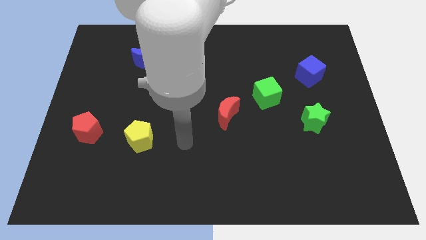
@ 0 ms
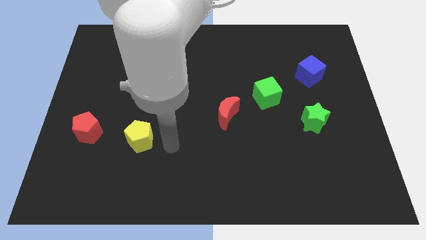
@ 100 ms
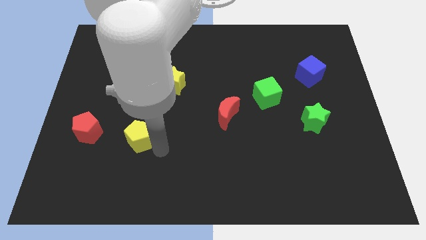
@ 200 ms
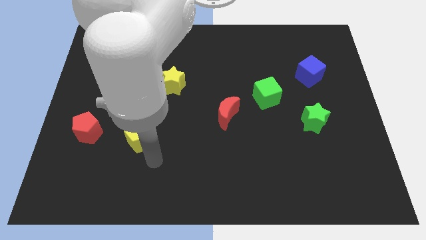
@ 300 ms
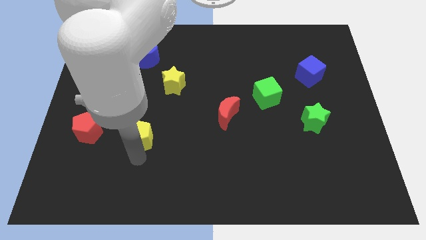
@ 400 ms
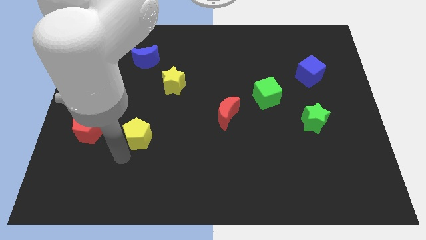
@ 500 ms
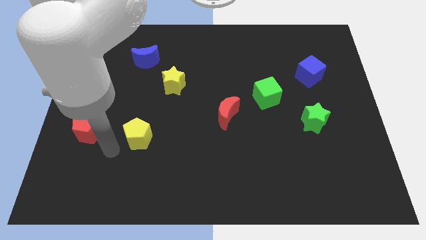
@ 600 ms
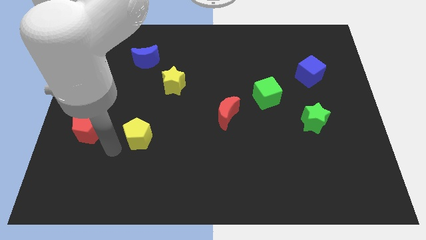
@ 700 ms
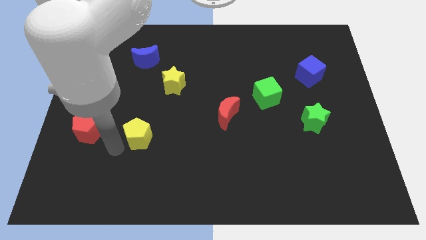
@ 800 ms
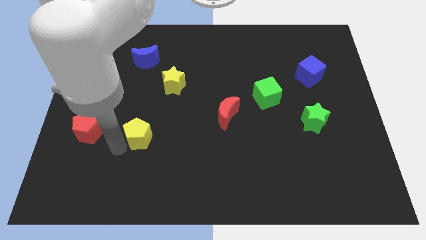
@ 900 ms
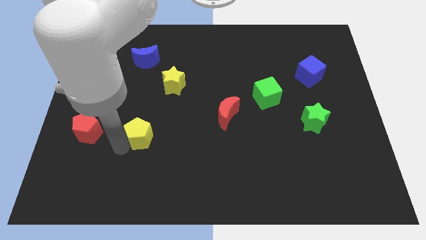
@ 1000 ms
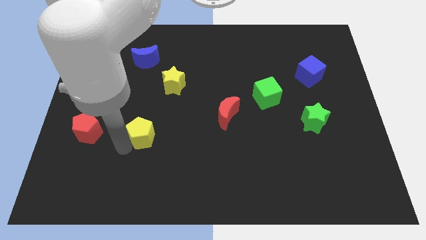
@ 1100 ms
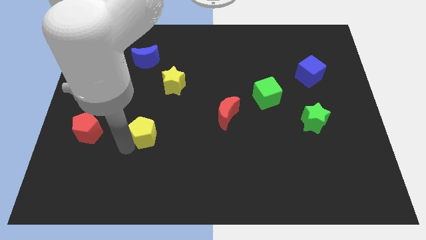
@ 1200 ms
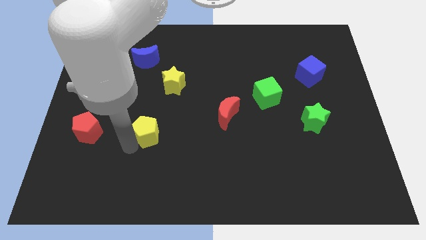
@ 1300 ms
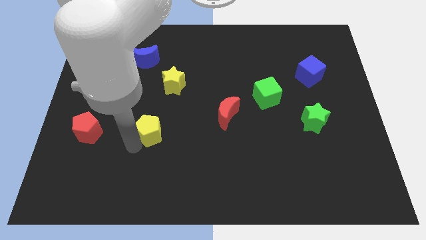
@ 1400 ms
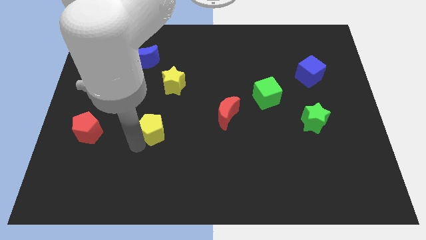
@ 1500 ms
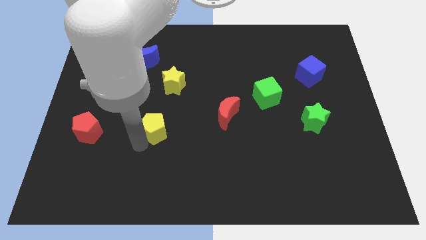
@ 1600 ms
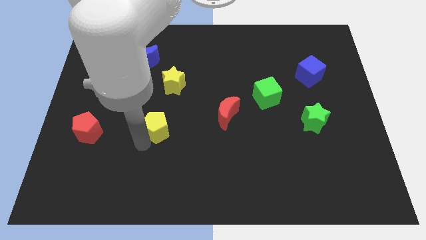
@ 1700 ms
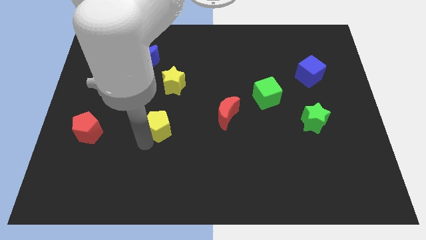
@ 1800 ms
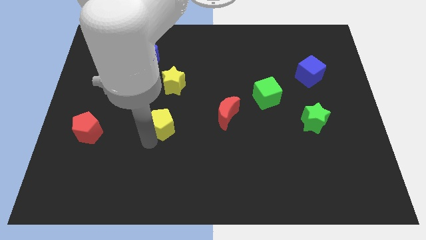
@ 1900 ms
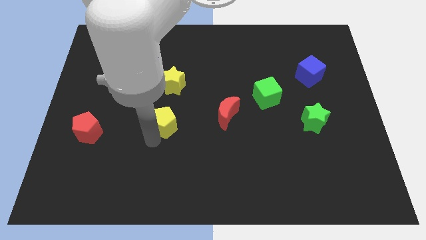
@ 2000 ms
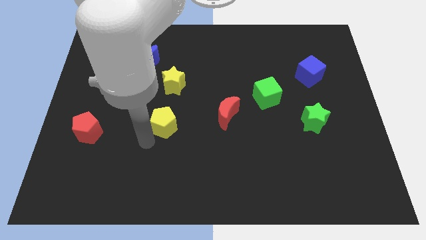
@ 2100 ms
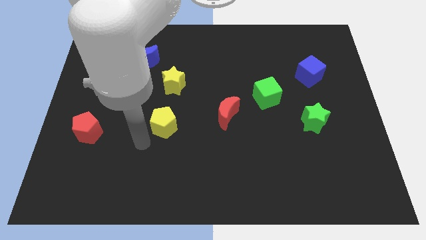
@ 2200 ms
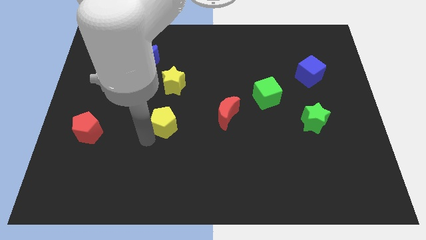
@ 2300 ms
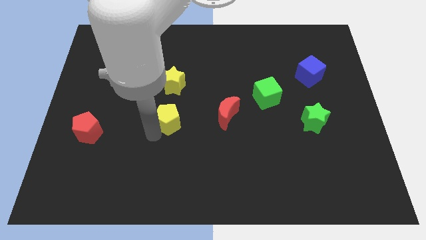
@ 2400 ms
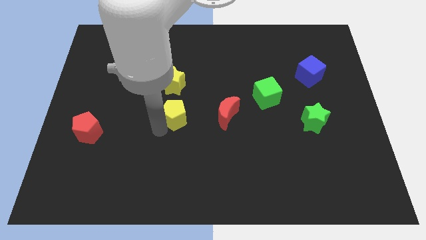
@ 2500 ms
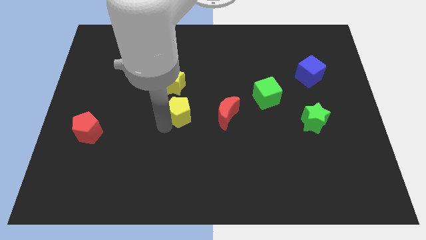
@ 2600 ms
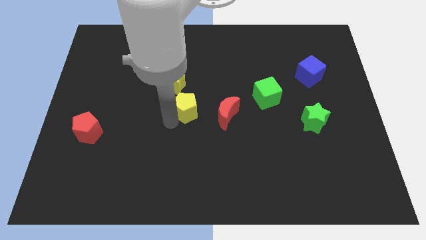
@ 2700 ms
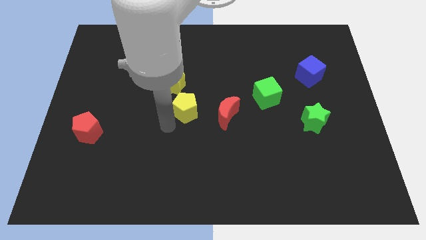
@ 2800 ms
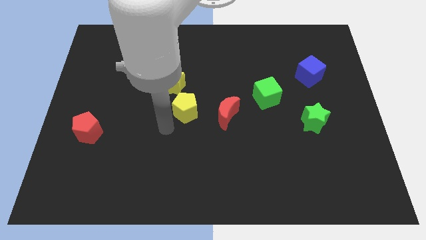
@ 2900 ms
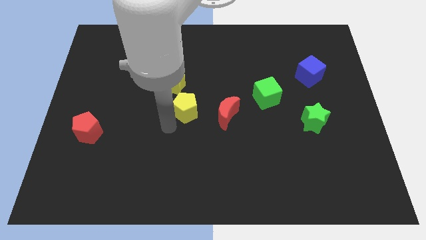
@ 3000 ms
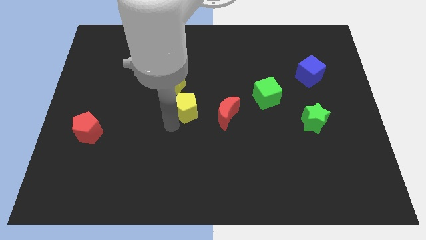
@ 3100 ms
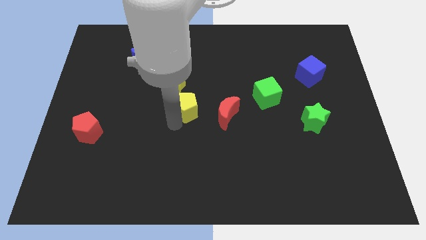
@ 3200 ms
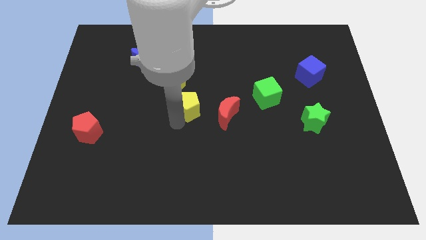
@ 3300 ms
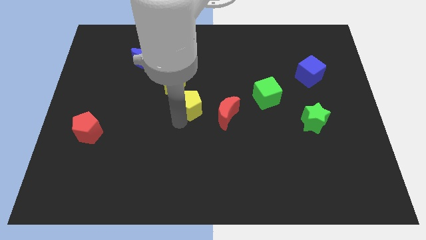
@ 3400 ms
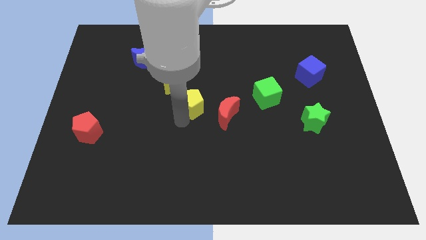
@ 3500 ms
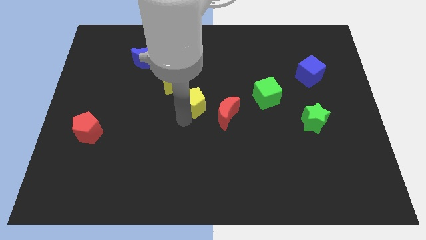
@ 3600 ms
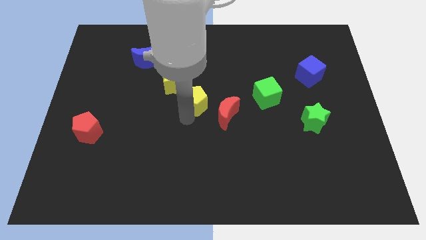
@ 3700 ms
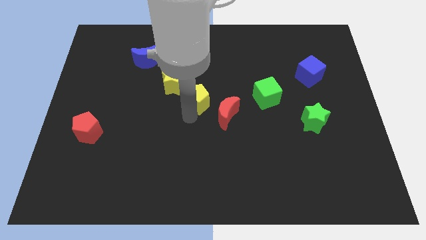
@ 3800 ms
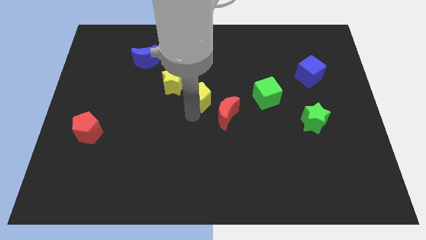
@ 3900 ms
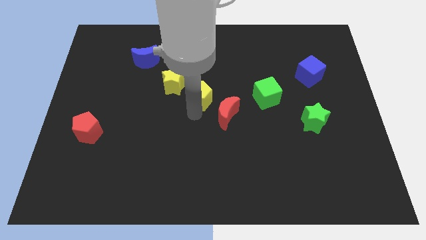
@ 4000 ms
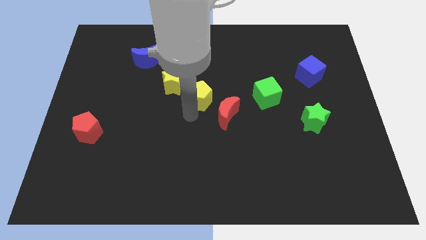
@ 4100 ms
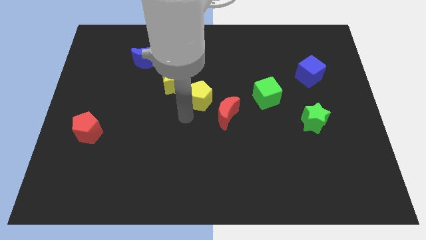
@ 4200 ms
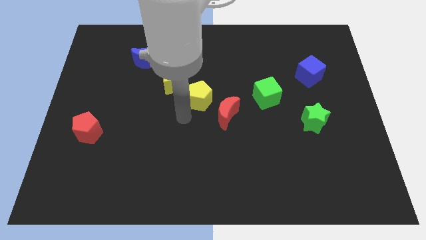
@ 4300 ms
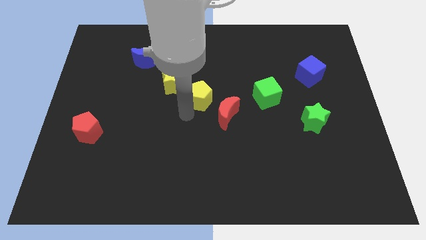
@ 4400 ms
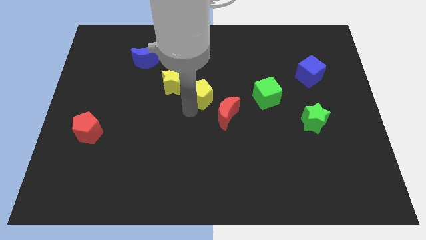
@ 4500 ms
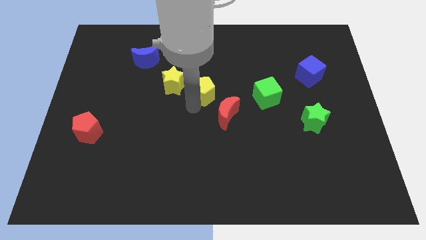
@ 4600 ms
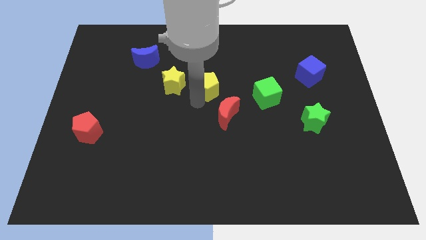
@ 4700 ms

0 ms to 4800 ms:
slide the yellow pentagon up and right

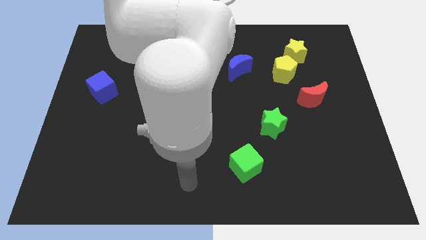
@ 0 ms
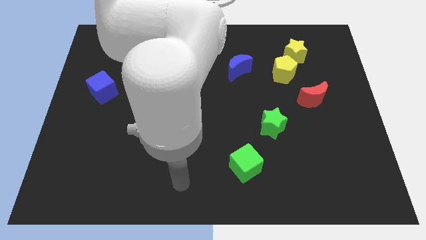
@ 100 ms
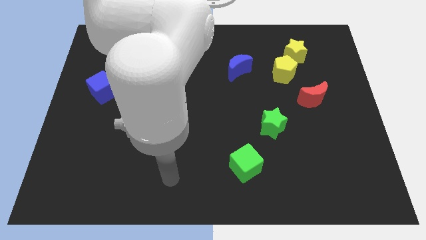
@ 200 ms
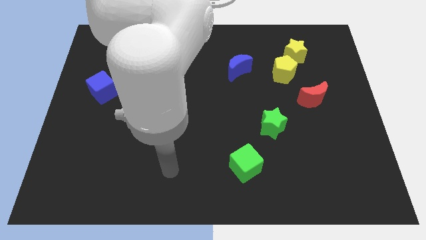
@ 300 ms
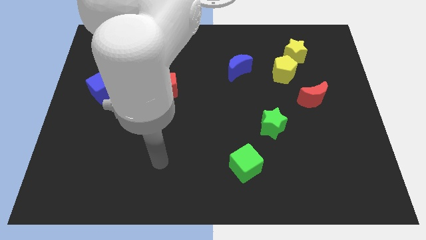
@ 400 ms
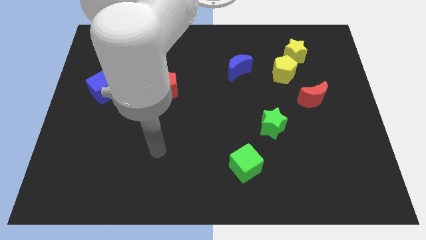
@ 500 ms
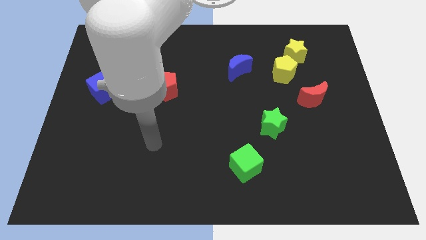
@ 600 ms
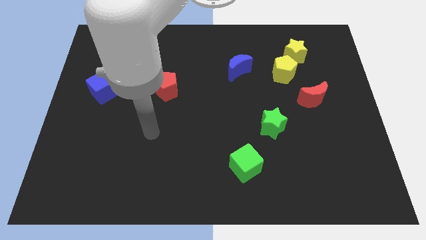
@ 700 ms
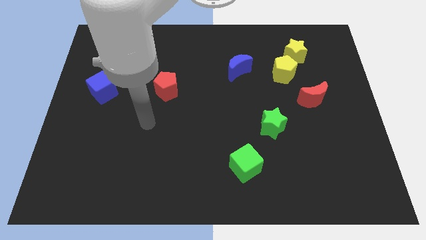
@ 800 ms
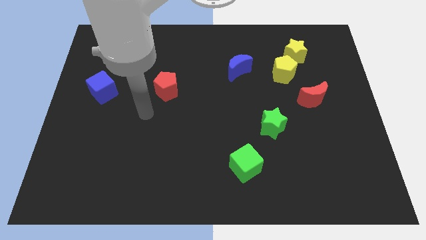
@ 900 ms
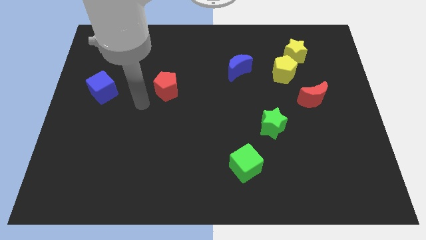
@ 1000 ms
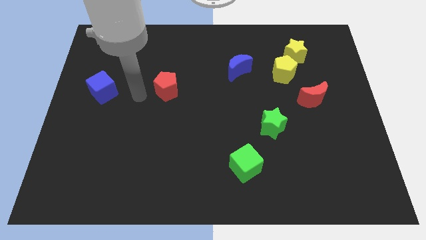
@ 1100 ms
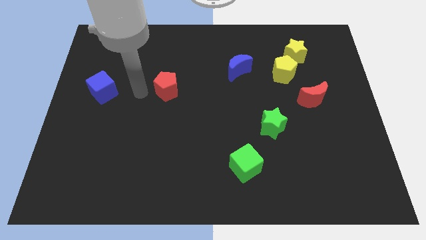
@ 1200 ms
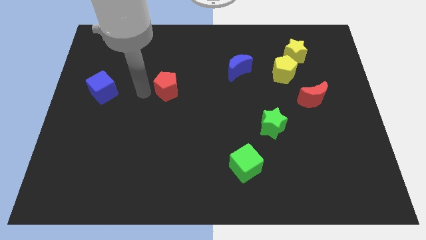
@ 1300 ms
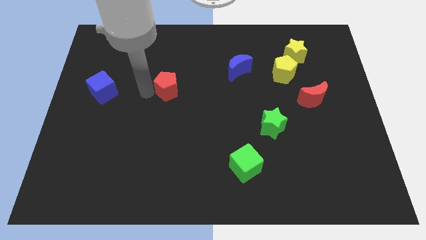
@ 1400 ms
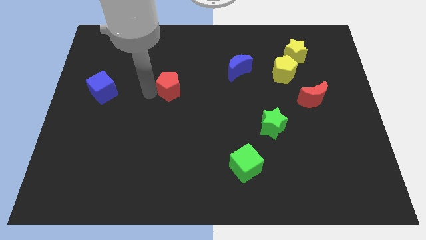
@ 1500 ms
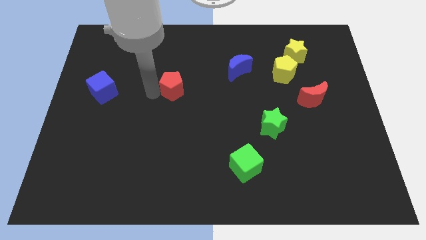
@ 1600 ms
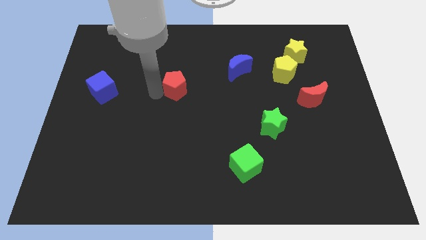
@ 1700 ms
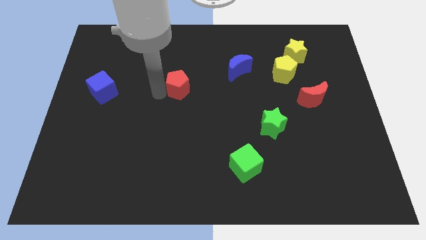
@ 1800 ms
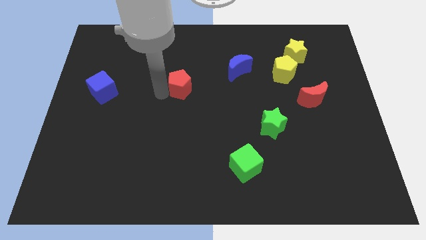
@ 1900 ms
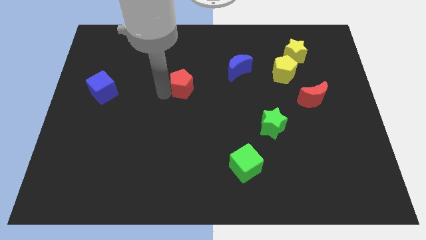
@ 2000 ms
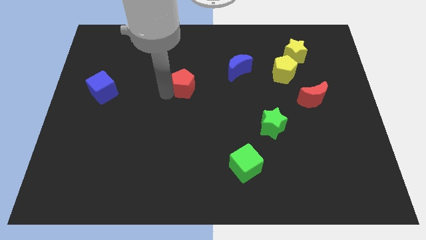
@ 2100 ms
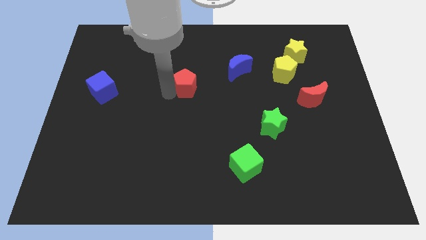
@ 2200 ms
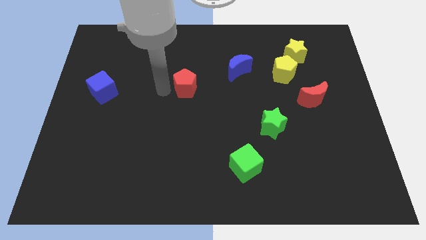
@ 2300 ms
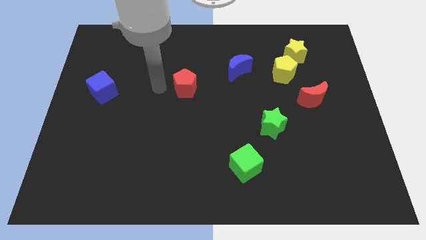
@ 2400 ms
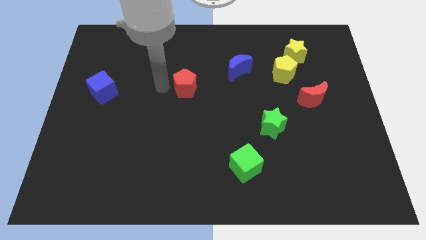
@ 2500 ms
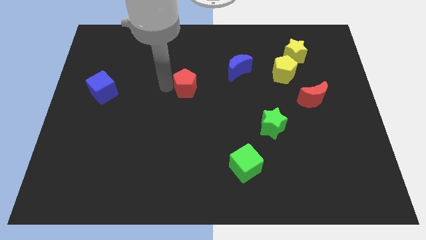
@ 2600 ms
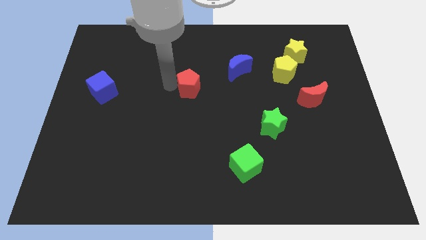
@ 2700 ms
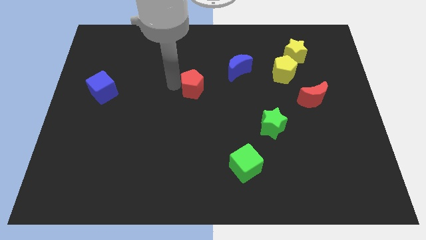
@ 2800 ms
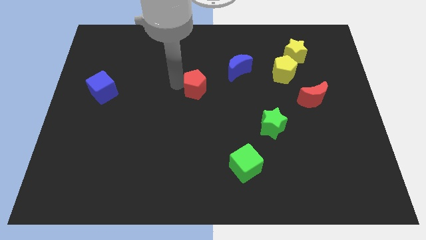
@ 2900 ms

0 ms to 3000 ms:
slide the red pentagon right slightly

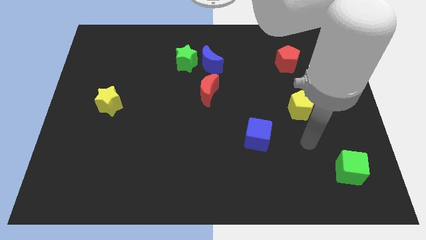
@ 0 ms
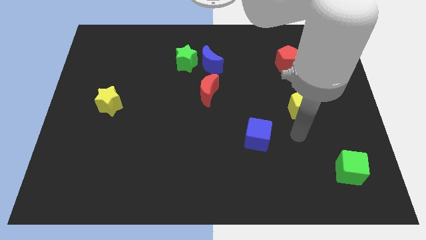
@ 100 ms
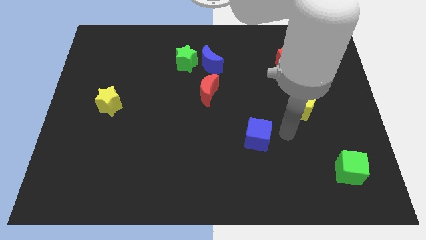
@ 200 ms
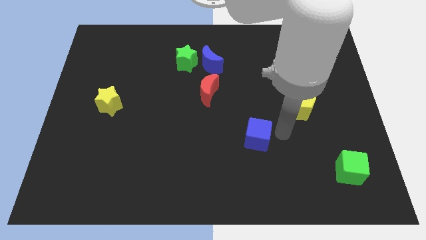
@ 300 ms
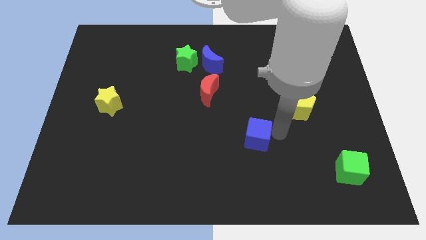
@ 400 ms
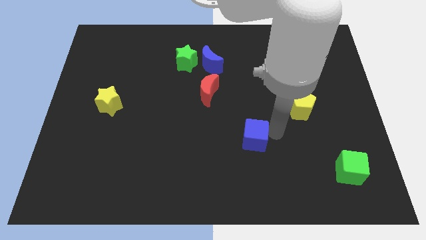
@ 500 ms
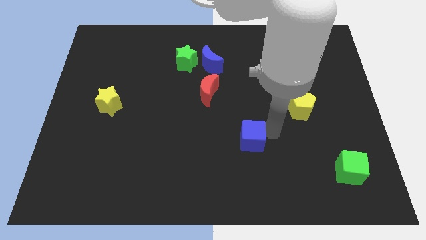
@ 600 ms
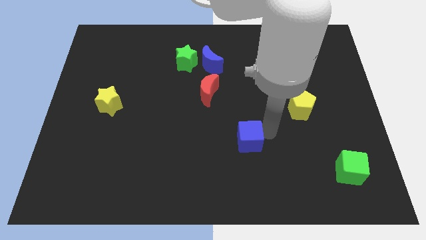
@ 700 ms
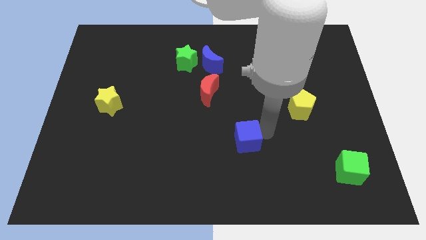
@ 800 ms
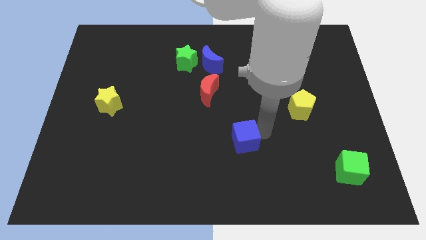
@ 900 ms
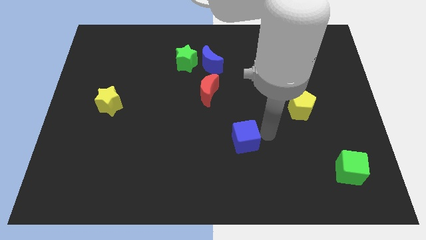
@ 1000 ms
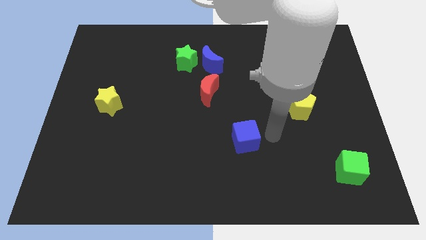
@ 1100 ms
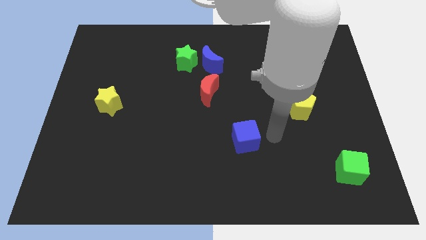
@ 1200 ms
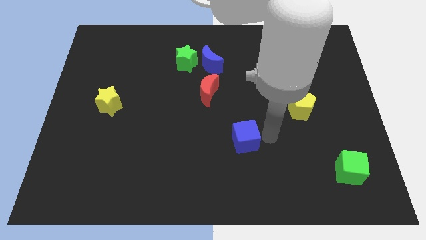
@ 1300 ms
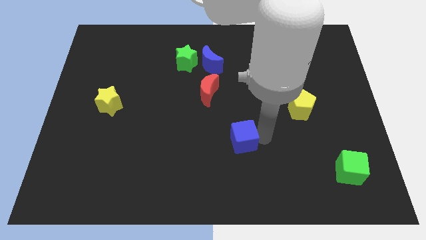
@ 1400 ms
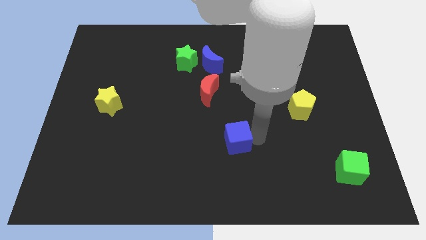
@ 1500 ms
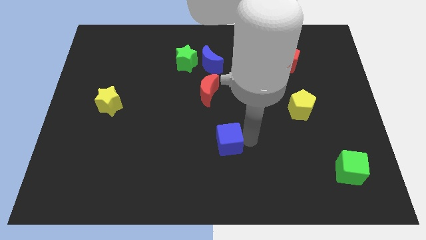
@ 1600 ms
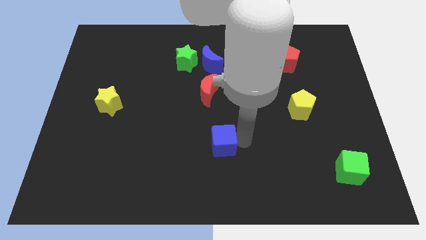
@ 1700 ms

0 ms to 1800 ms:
slightly push the blue cube to the left
